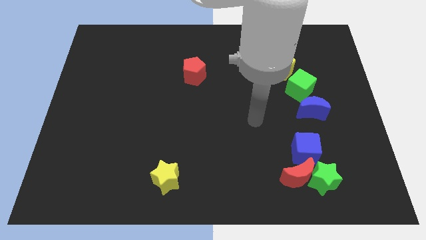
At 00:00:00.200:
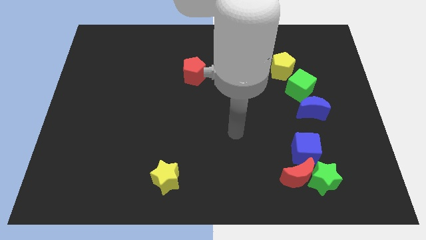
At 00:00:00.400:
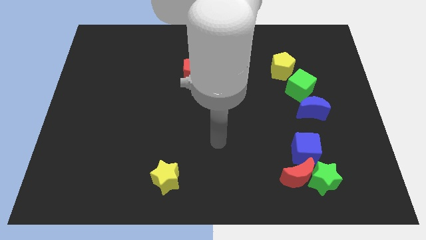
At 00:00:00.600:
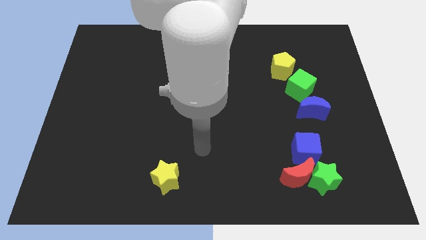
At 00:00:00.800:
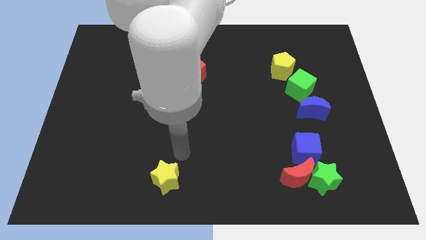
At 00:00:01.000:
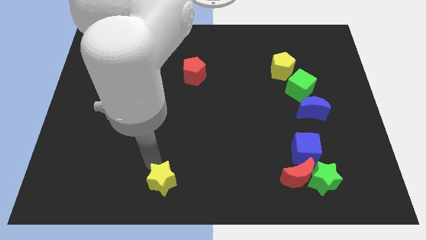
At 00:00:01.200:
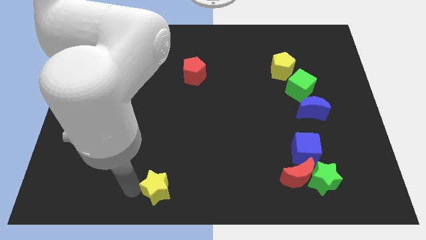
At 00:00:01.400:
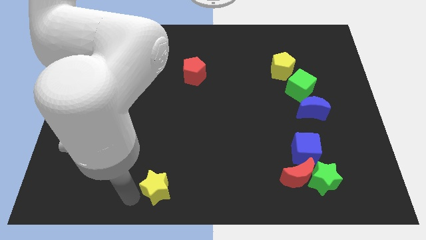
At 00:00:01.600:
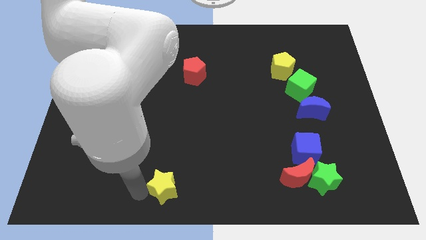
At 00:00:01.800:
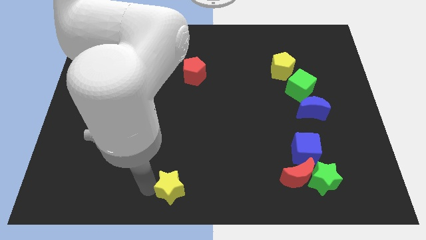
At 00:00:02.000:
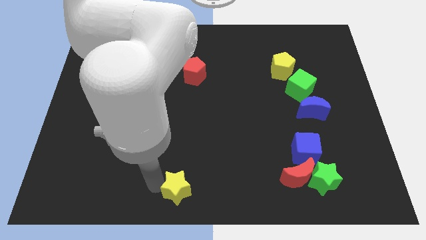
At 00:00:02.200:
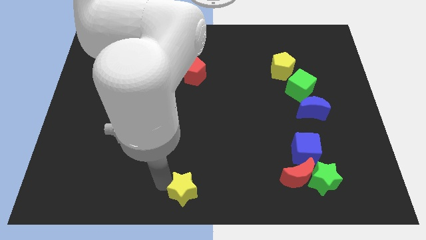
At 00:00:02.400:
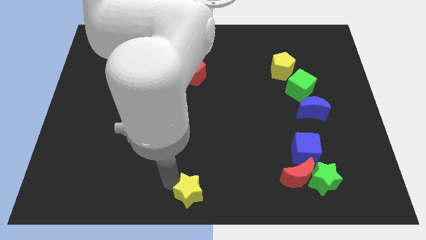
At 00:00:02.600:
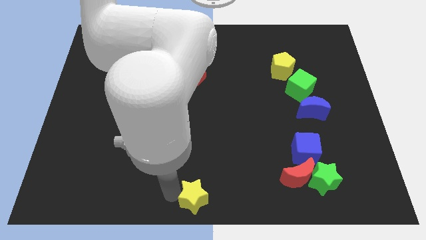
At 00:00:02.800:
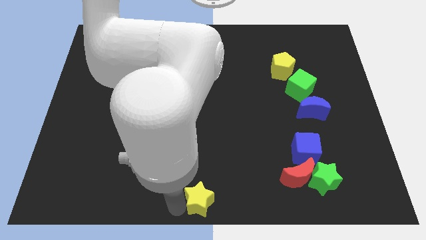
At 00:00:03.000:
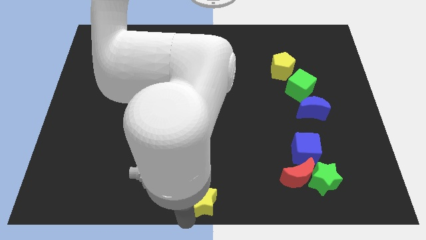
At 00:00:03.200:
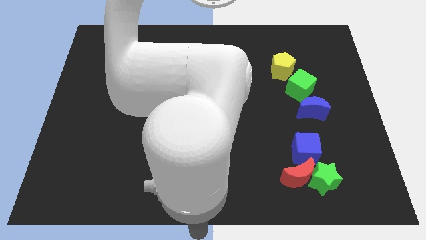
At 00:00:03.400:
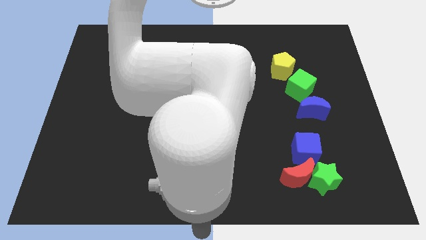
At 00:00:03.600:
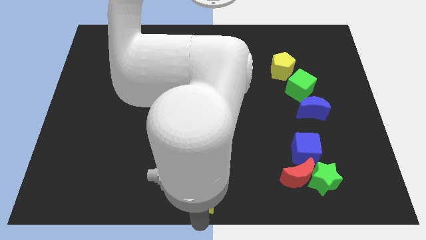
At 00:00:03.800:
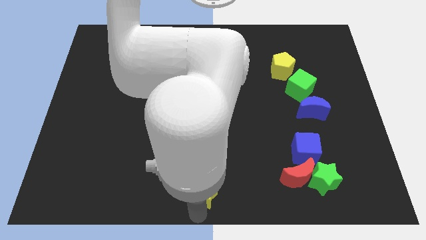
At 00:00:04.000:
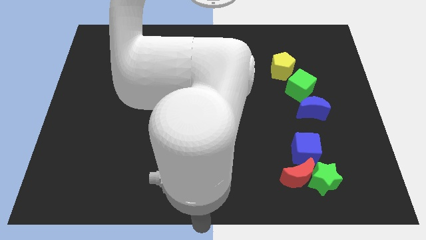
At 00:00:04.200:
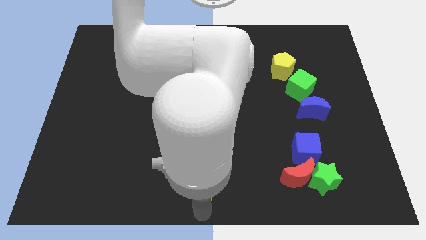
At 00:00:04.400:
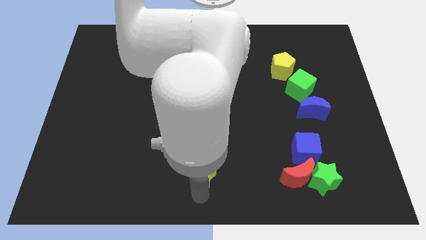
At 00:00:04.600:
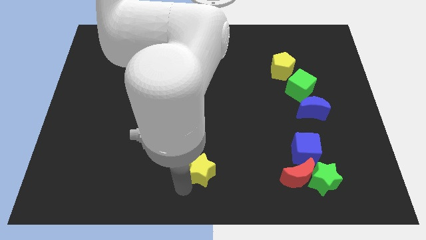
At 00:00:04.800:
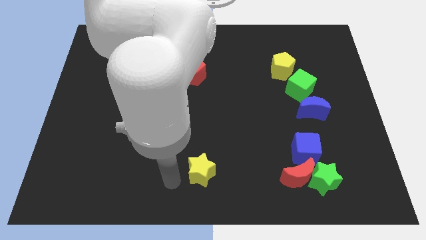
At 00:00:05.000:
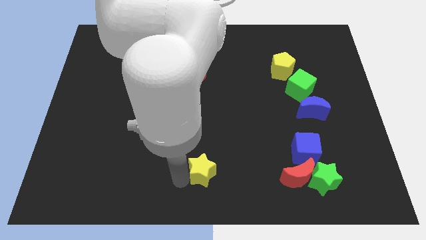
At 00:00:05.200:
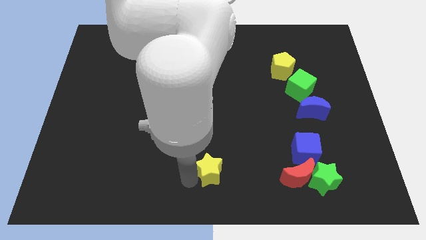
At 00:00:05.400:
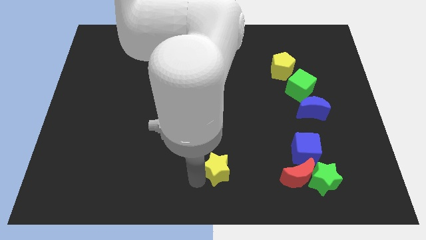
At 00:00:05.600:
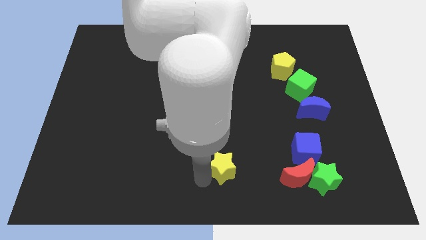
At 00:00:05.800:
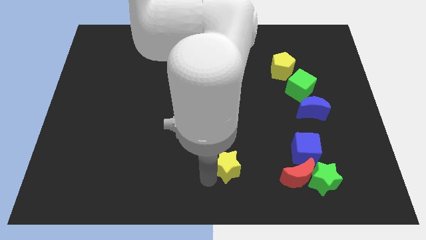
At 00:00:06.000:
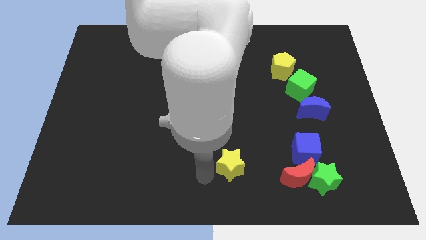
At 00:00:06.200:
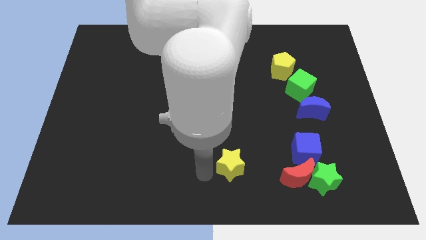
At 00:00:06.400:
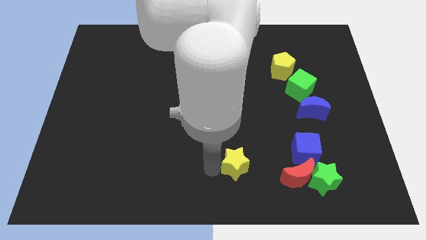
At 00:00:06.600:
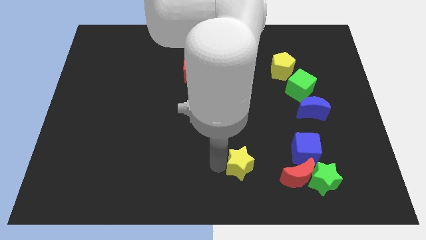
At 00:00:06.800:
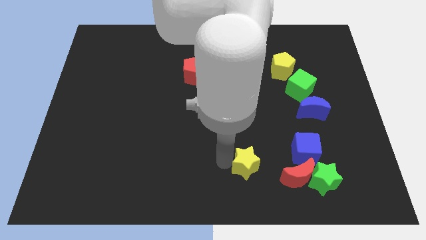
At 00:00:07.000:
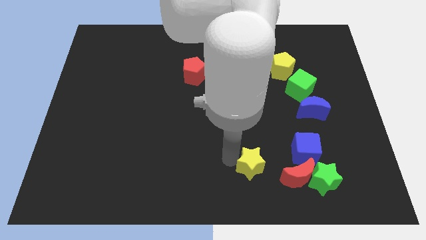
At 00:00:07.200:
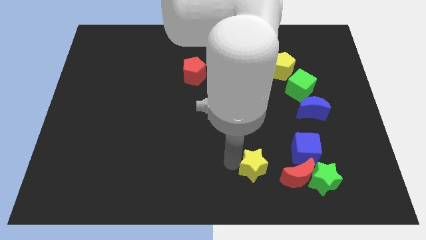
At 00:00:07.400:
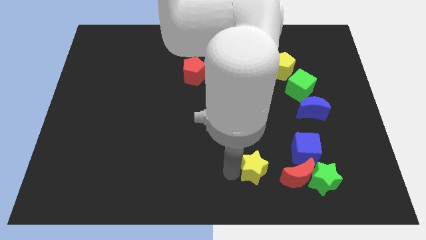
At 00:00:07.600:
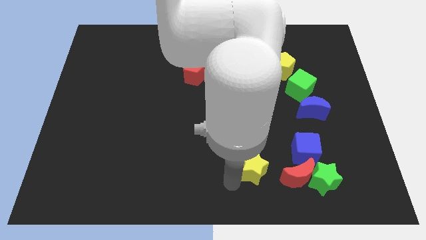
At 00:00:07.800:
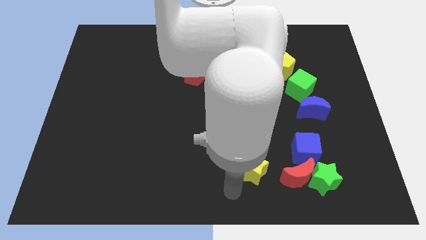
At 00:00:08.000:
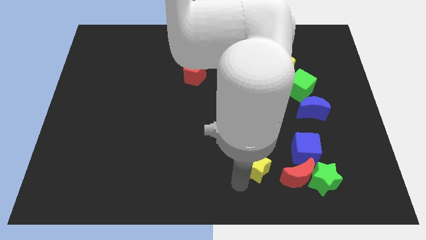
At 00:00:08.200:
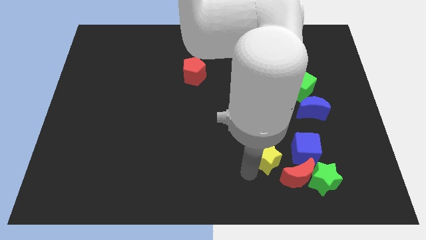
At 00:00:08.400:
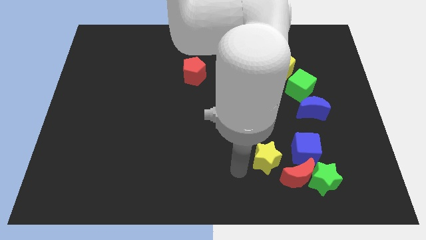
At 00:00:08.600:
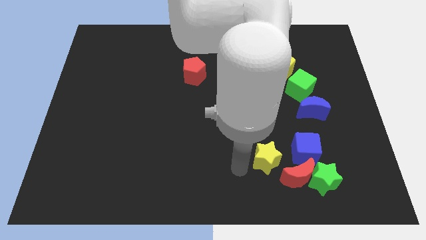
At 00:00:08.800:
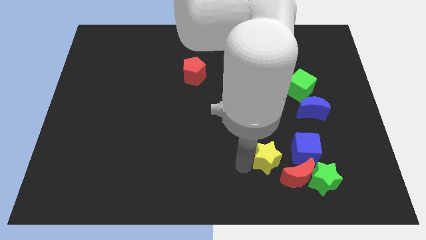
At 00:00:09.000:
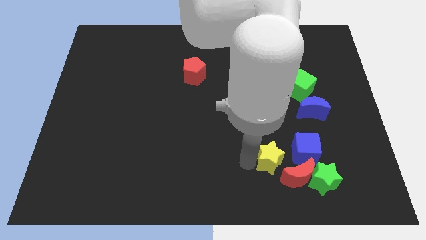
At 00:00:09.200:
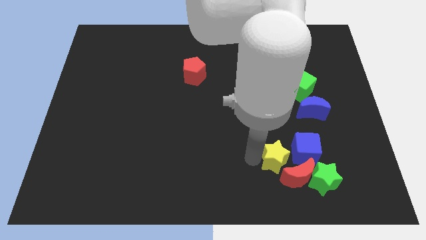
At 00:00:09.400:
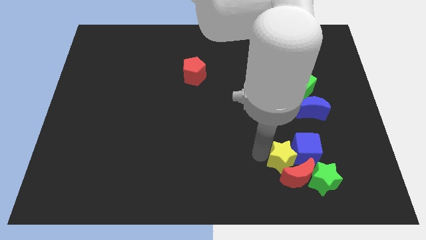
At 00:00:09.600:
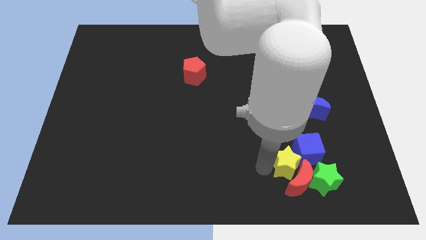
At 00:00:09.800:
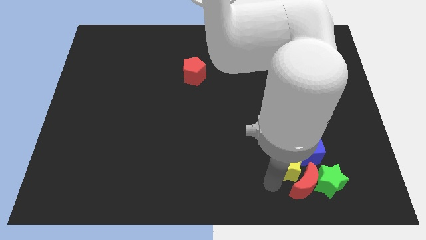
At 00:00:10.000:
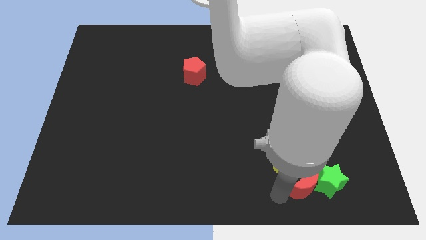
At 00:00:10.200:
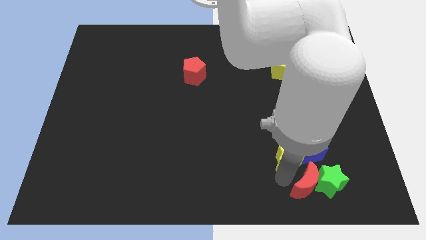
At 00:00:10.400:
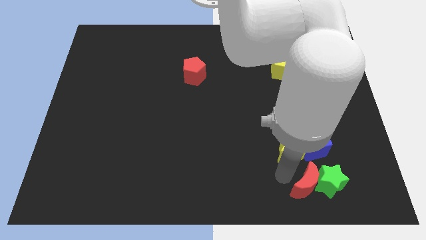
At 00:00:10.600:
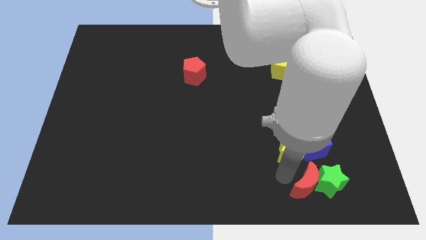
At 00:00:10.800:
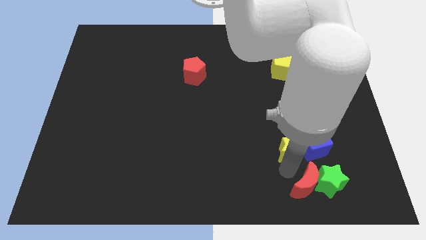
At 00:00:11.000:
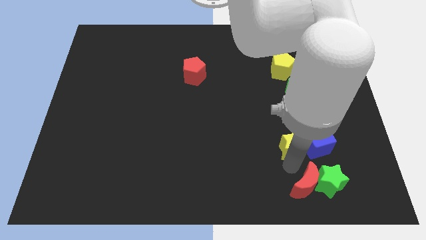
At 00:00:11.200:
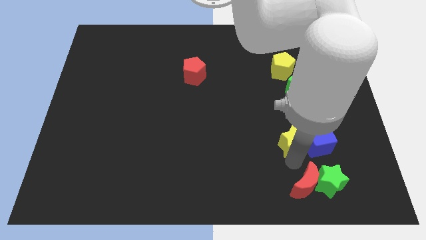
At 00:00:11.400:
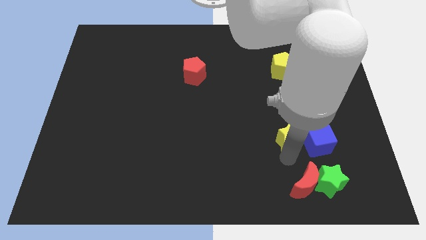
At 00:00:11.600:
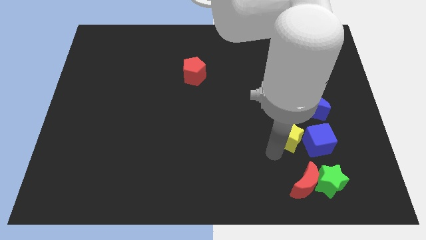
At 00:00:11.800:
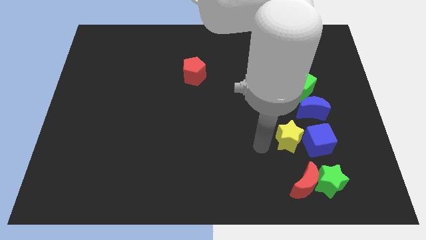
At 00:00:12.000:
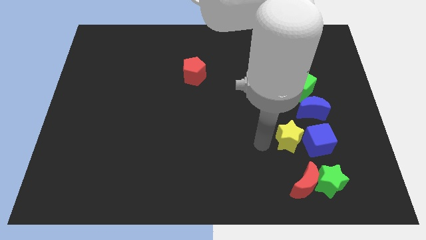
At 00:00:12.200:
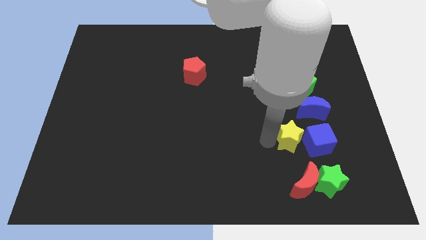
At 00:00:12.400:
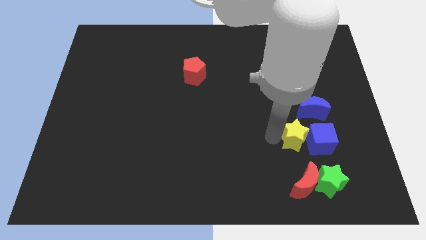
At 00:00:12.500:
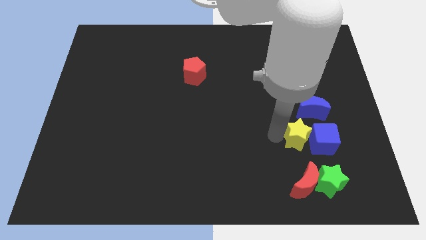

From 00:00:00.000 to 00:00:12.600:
move the yellow star to the bottom side of the blue moon
